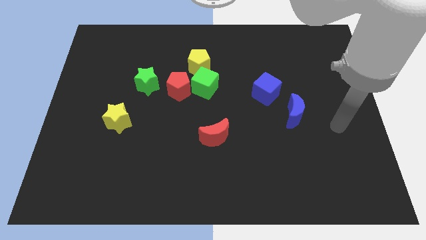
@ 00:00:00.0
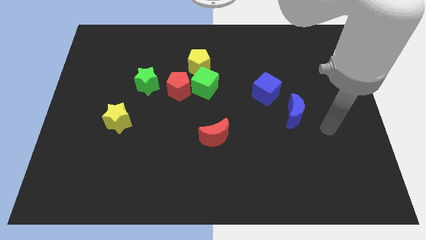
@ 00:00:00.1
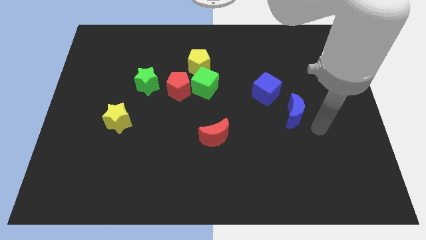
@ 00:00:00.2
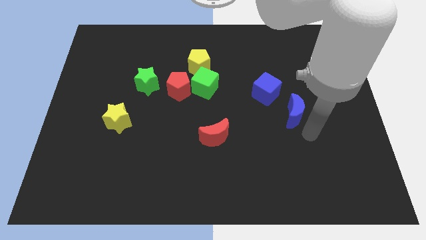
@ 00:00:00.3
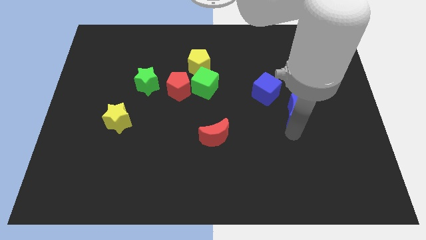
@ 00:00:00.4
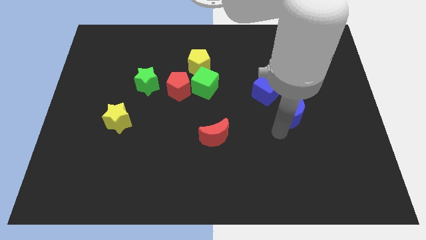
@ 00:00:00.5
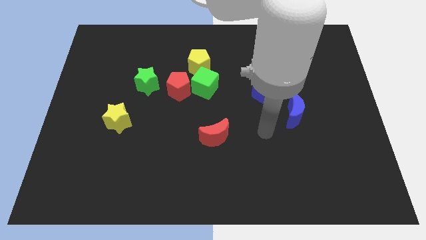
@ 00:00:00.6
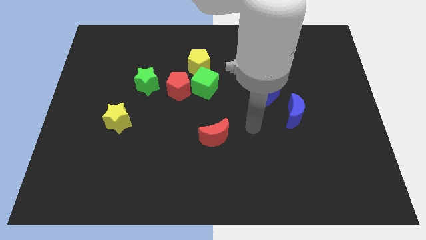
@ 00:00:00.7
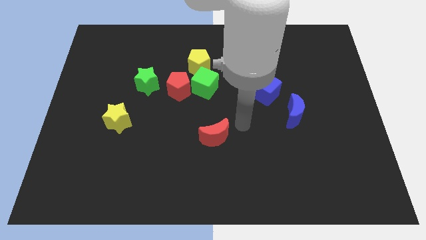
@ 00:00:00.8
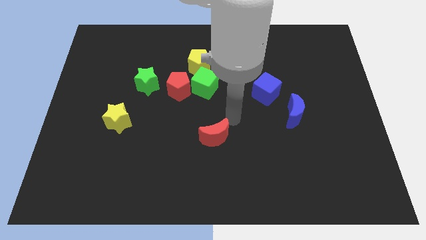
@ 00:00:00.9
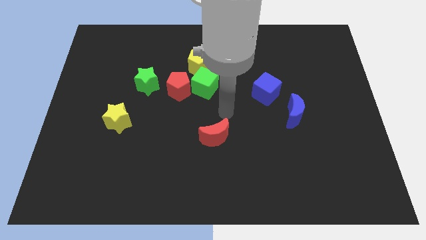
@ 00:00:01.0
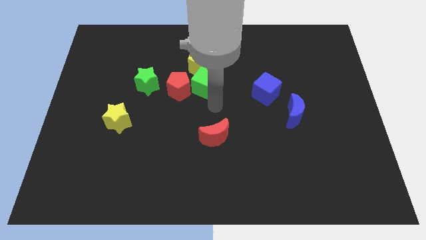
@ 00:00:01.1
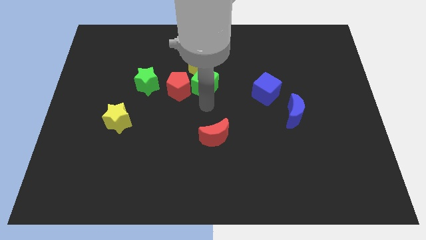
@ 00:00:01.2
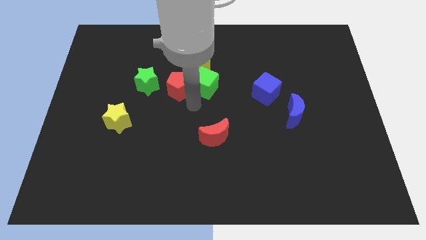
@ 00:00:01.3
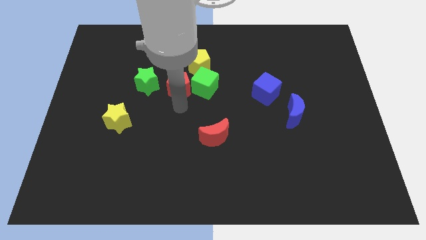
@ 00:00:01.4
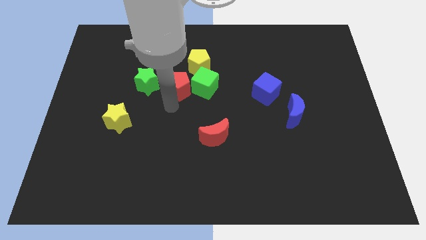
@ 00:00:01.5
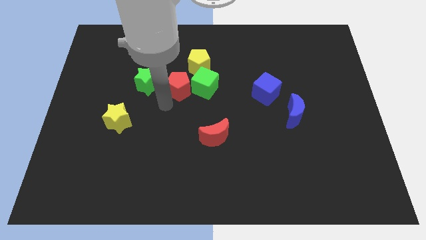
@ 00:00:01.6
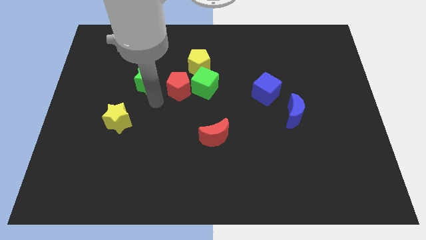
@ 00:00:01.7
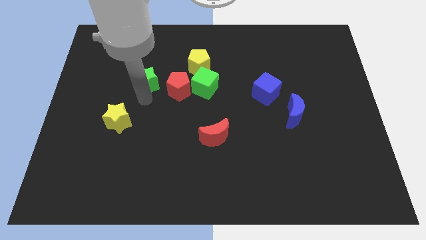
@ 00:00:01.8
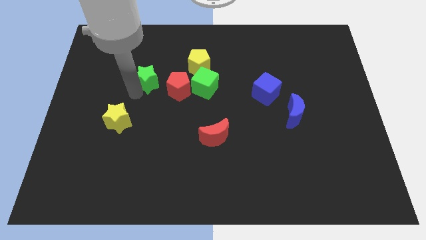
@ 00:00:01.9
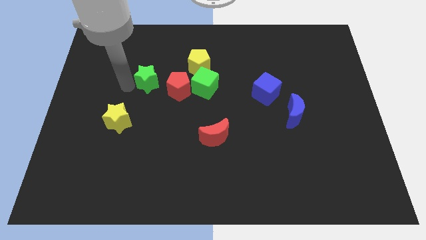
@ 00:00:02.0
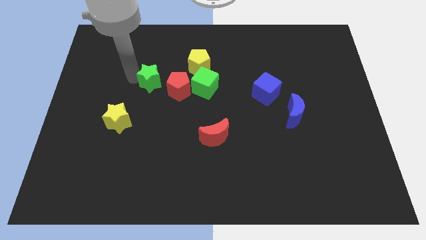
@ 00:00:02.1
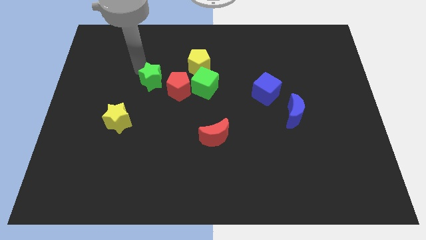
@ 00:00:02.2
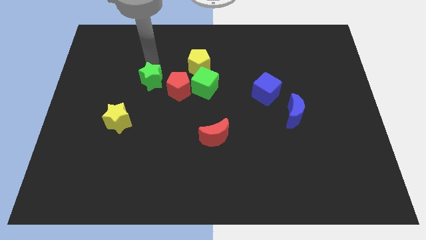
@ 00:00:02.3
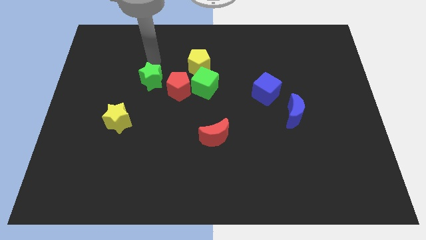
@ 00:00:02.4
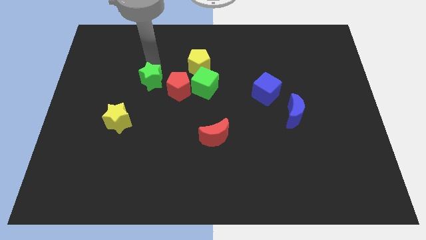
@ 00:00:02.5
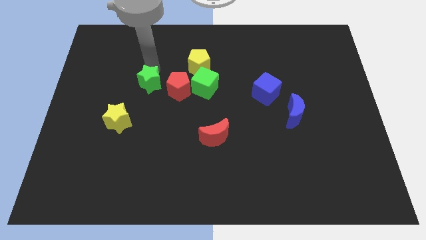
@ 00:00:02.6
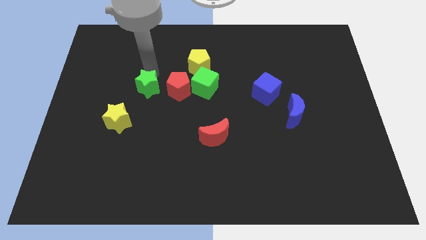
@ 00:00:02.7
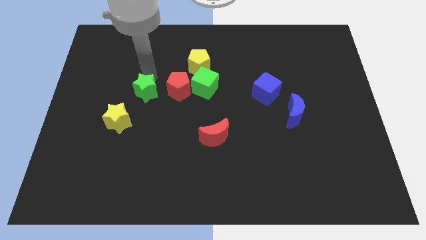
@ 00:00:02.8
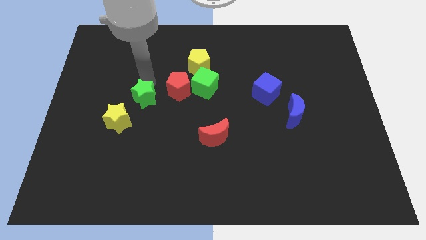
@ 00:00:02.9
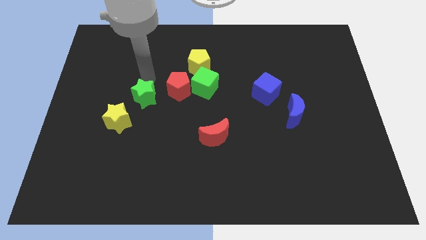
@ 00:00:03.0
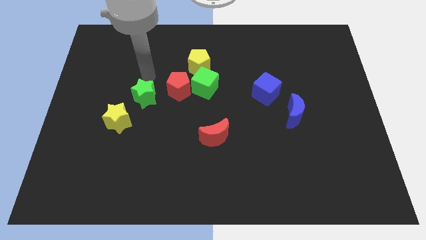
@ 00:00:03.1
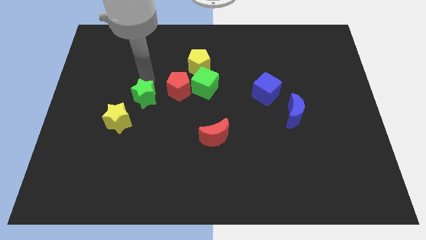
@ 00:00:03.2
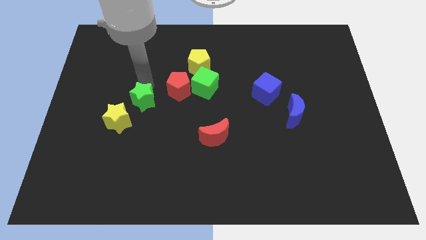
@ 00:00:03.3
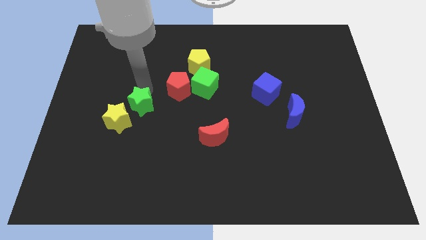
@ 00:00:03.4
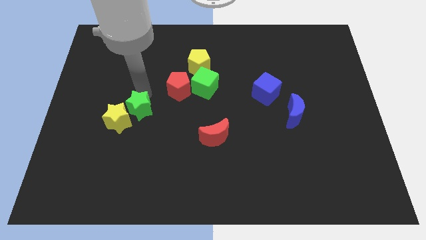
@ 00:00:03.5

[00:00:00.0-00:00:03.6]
slightly push the green star down

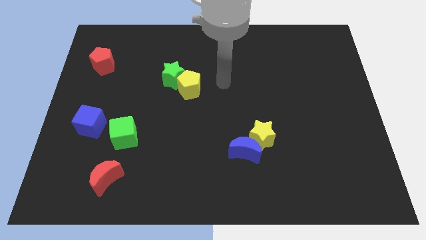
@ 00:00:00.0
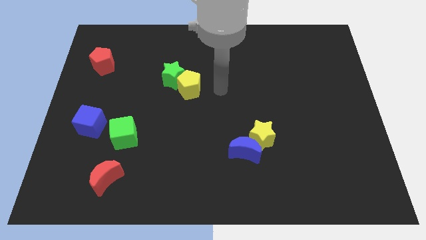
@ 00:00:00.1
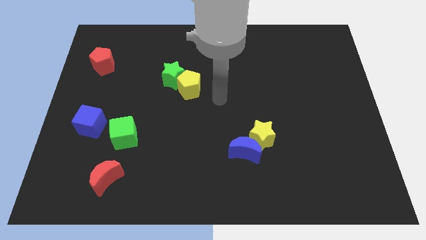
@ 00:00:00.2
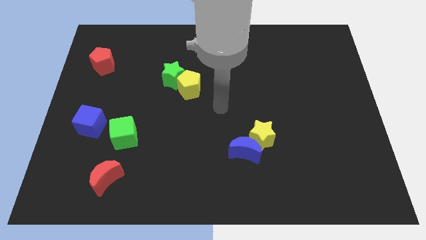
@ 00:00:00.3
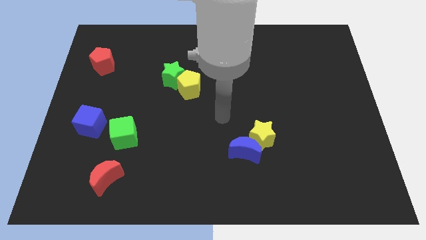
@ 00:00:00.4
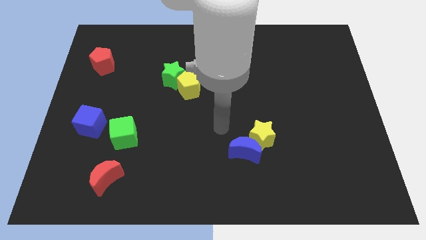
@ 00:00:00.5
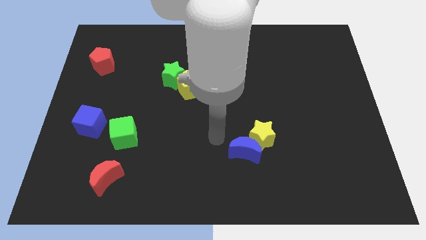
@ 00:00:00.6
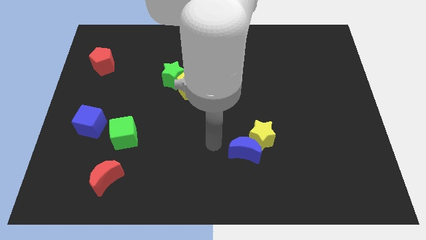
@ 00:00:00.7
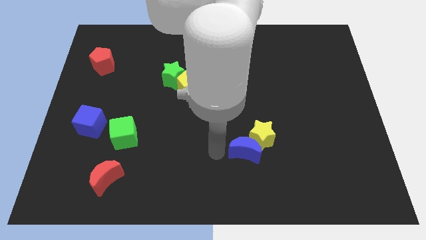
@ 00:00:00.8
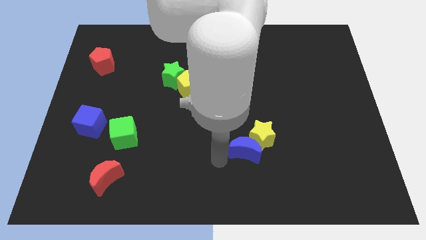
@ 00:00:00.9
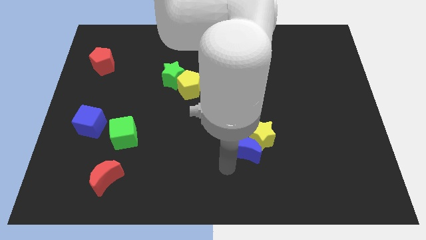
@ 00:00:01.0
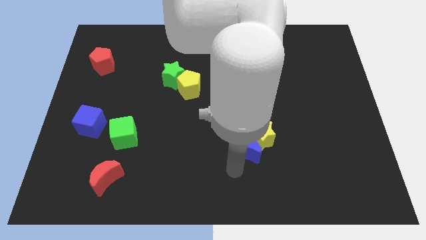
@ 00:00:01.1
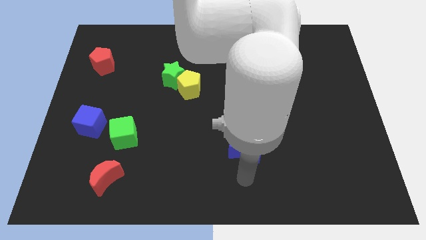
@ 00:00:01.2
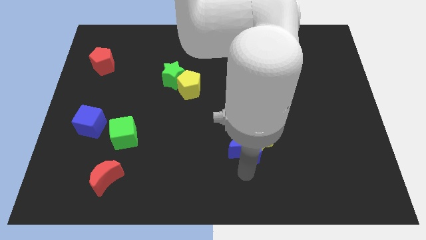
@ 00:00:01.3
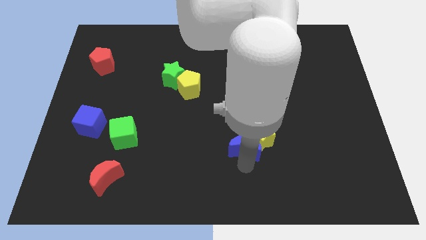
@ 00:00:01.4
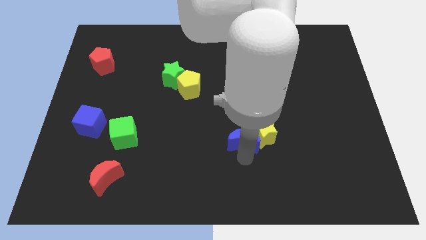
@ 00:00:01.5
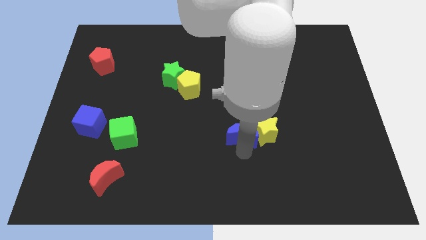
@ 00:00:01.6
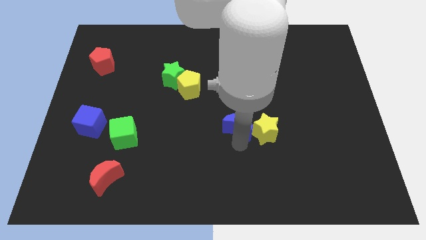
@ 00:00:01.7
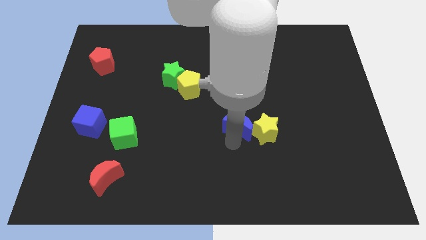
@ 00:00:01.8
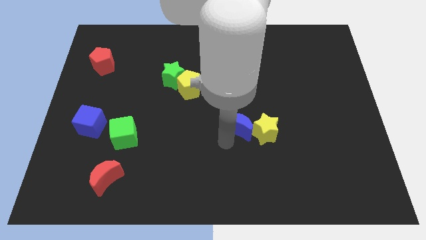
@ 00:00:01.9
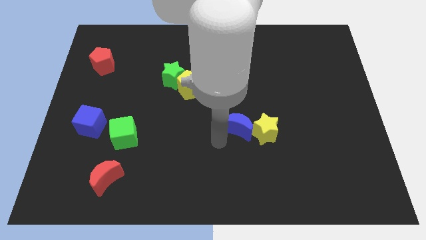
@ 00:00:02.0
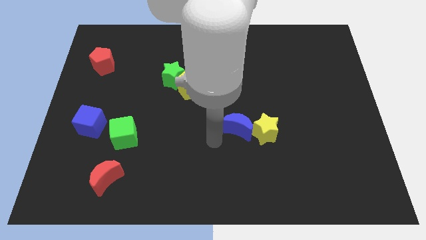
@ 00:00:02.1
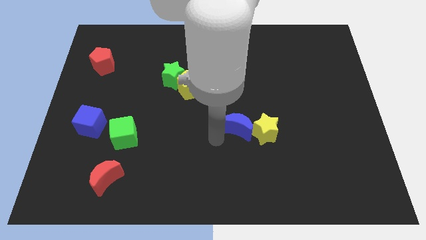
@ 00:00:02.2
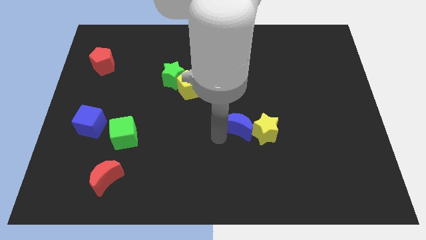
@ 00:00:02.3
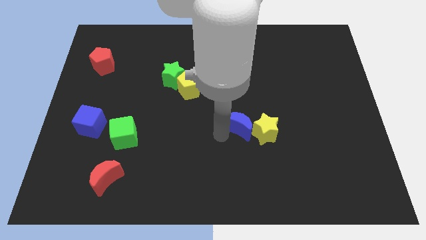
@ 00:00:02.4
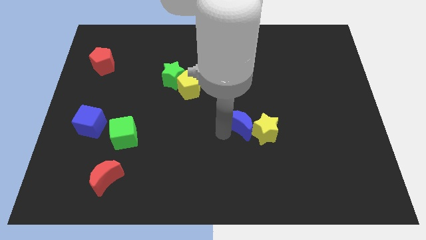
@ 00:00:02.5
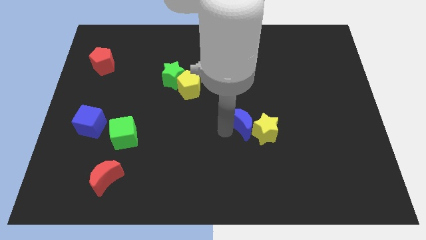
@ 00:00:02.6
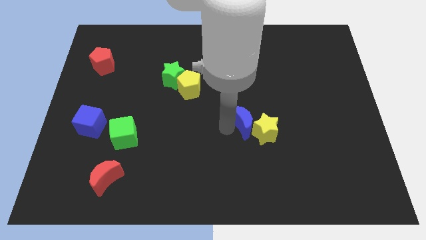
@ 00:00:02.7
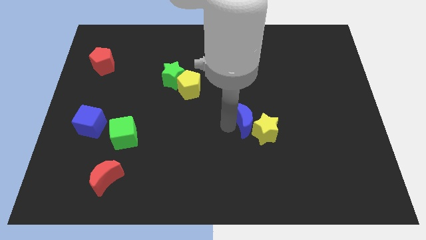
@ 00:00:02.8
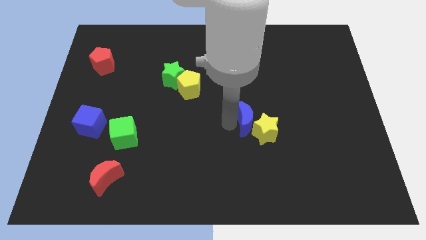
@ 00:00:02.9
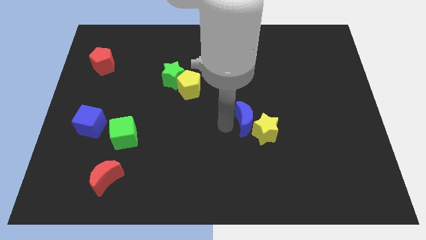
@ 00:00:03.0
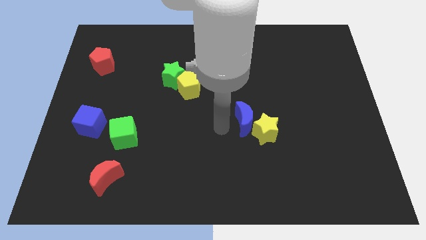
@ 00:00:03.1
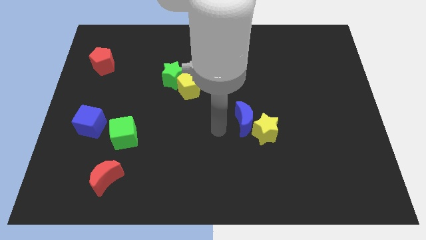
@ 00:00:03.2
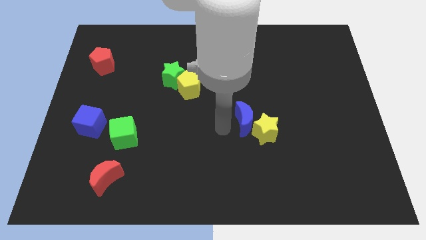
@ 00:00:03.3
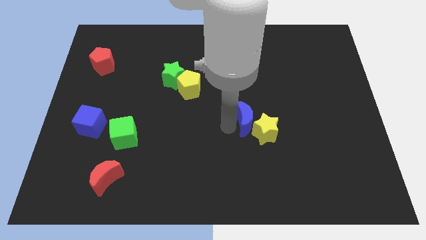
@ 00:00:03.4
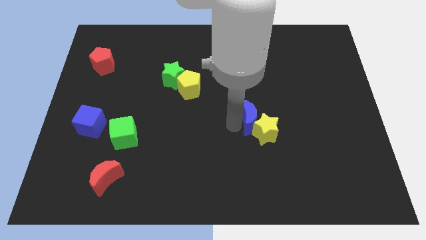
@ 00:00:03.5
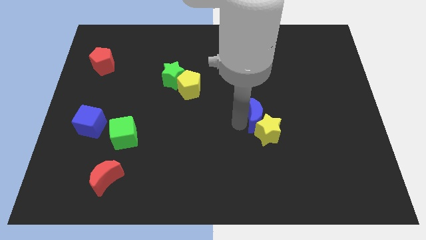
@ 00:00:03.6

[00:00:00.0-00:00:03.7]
slide the blue moon upwards and right a bit

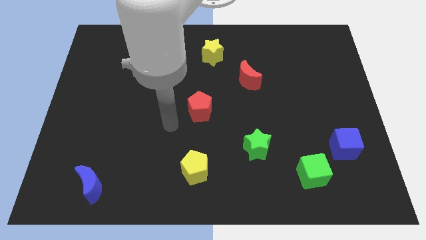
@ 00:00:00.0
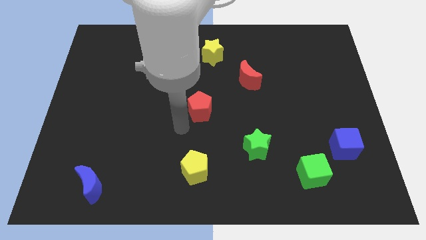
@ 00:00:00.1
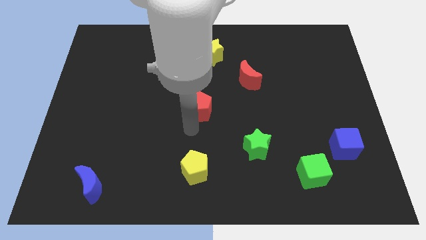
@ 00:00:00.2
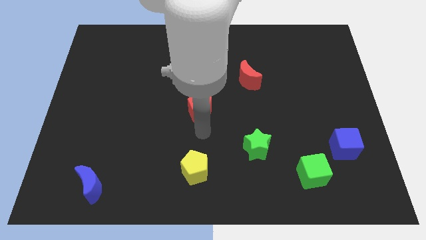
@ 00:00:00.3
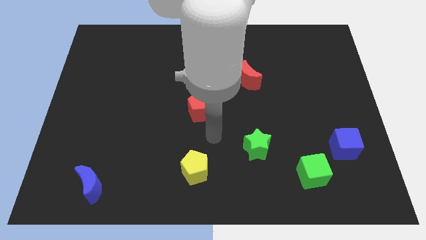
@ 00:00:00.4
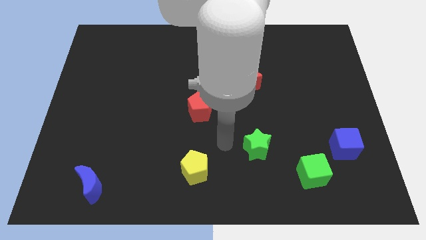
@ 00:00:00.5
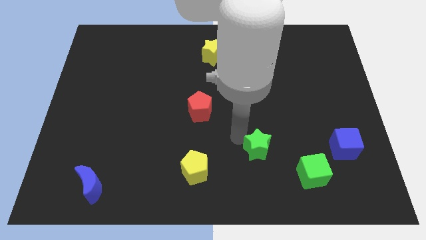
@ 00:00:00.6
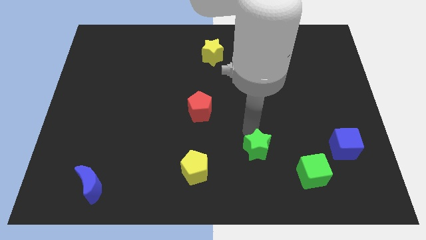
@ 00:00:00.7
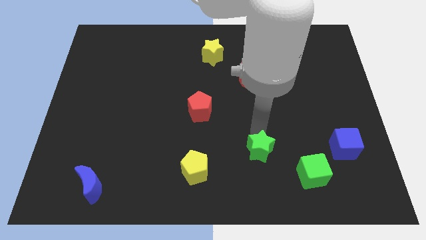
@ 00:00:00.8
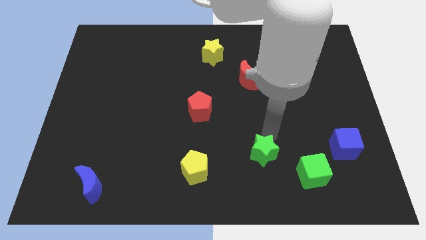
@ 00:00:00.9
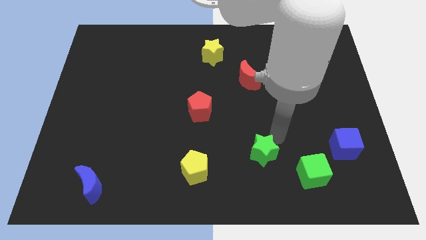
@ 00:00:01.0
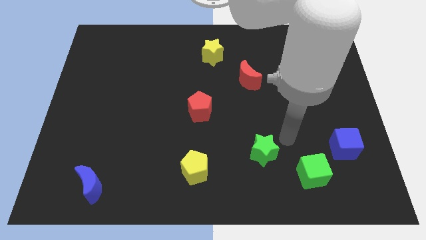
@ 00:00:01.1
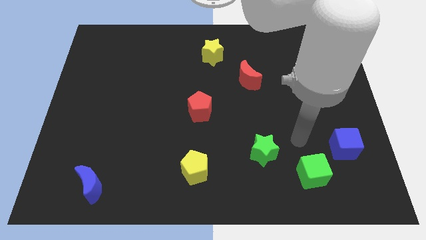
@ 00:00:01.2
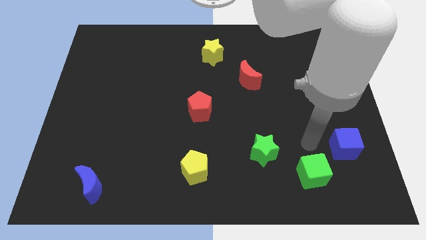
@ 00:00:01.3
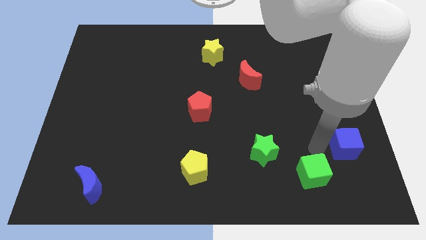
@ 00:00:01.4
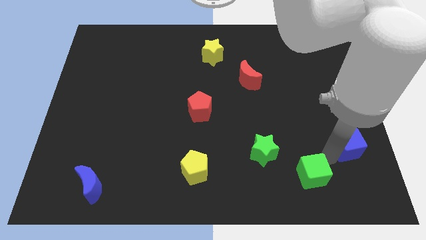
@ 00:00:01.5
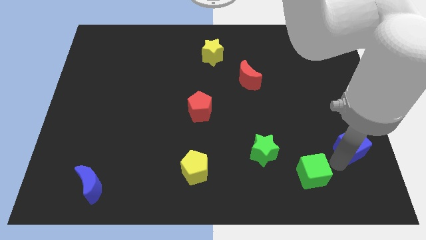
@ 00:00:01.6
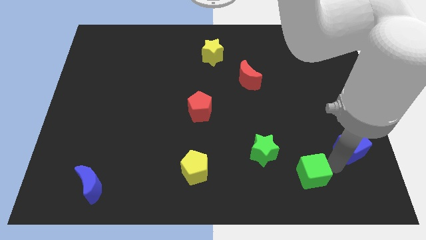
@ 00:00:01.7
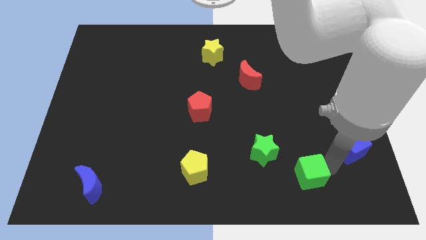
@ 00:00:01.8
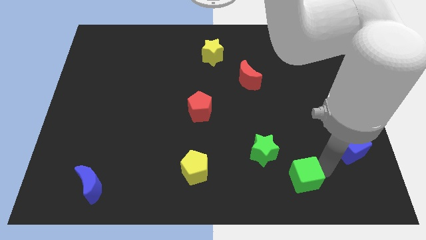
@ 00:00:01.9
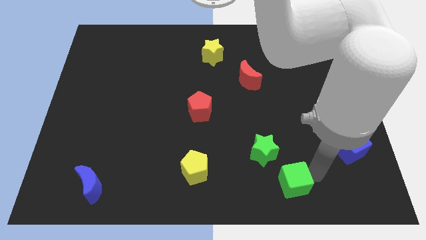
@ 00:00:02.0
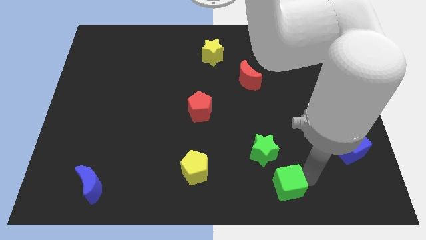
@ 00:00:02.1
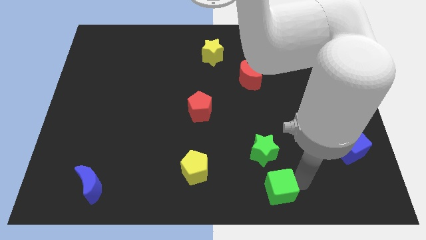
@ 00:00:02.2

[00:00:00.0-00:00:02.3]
move the green cube a little bit to the left
